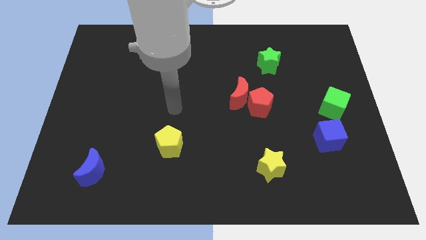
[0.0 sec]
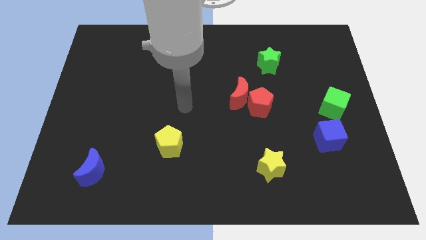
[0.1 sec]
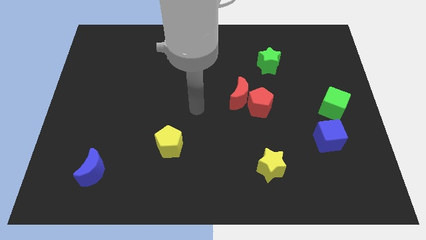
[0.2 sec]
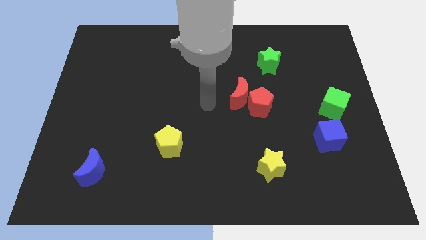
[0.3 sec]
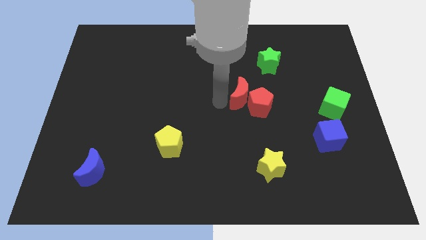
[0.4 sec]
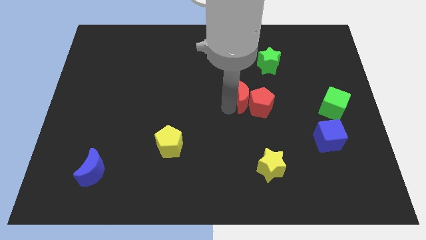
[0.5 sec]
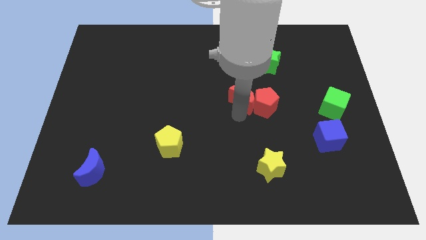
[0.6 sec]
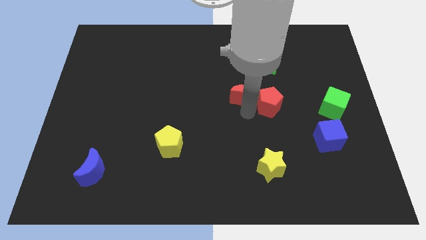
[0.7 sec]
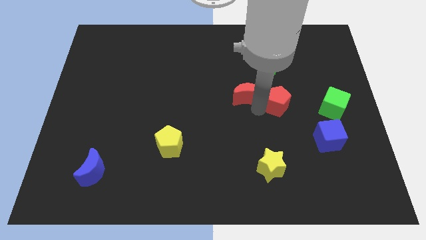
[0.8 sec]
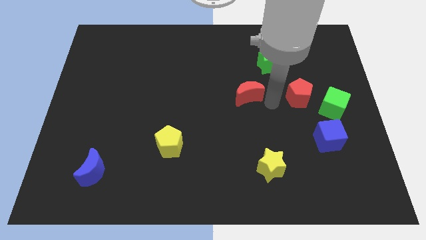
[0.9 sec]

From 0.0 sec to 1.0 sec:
move the red moon away from the red pentagon

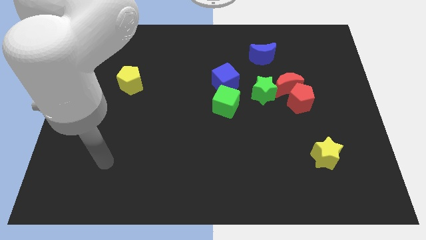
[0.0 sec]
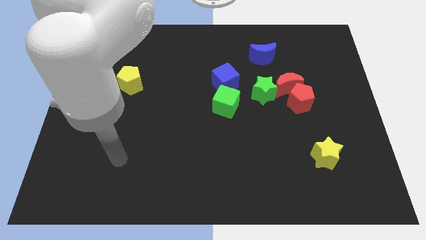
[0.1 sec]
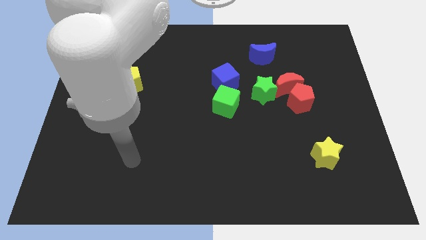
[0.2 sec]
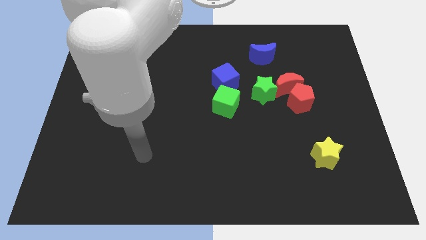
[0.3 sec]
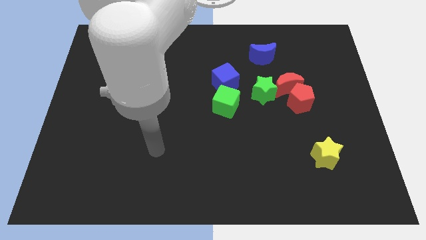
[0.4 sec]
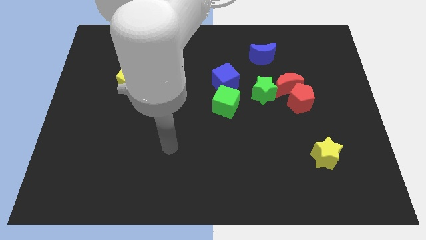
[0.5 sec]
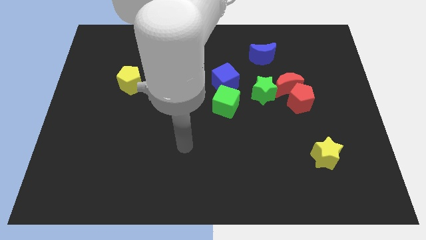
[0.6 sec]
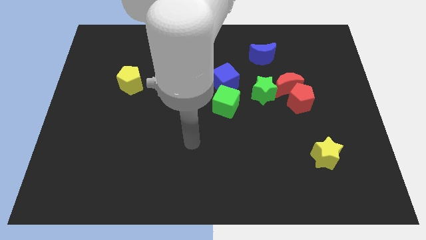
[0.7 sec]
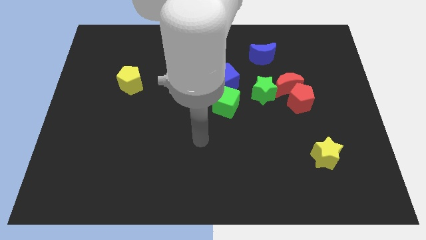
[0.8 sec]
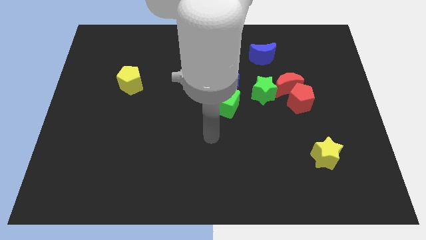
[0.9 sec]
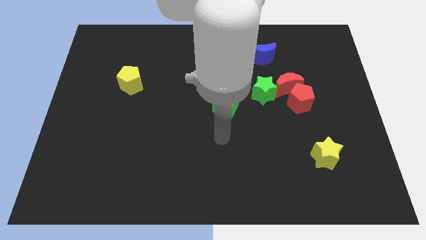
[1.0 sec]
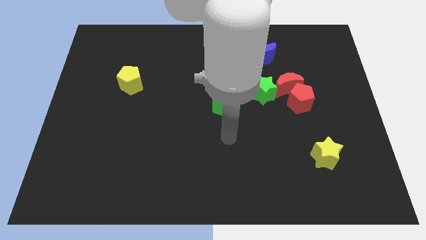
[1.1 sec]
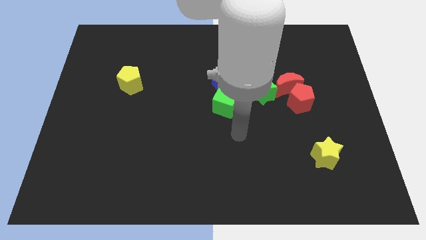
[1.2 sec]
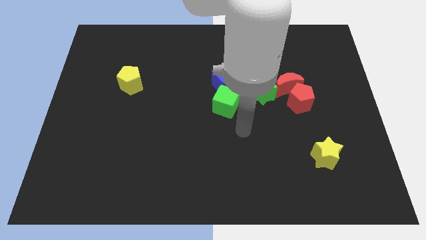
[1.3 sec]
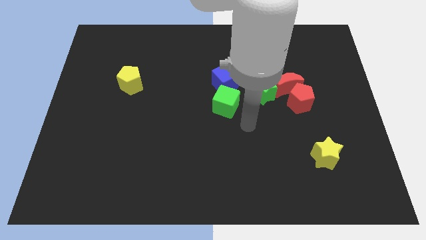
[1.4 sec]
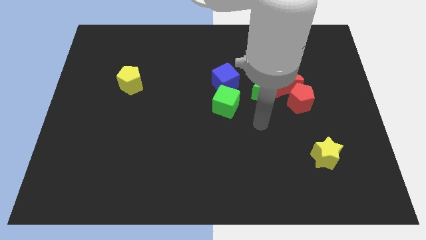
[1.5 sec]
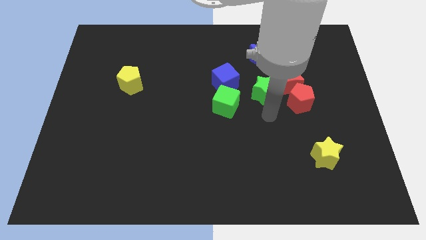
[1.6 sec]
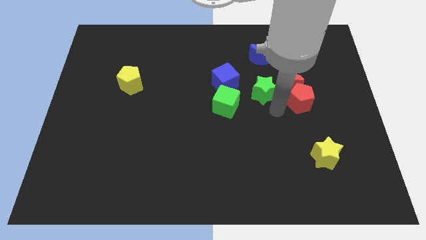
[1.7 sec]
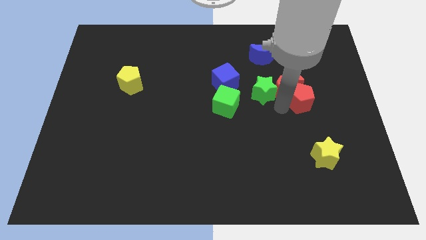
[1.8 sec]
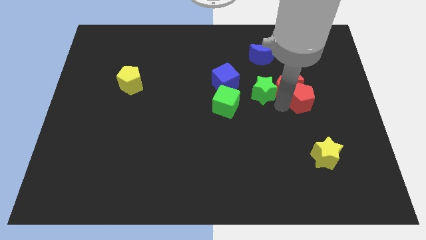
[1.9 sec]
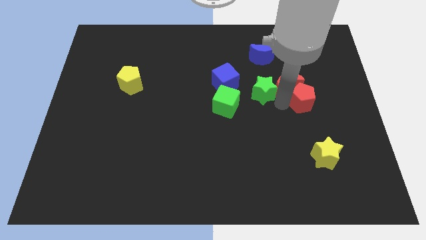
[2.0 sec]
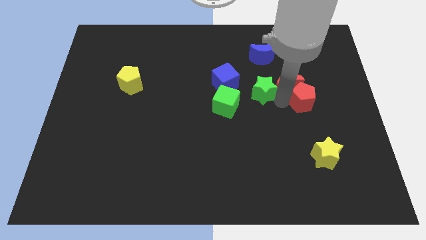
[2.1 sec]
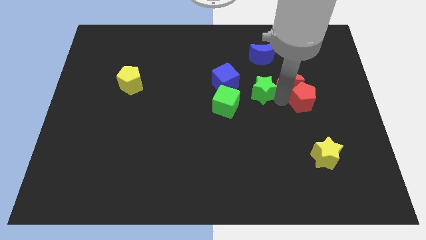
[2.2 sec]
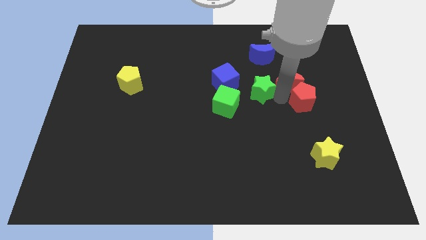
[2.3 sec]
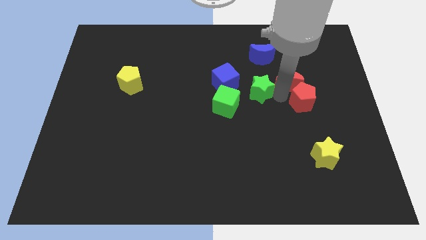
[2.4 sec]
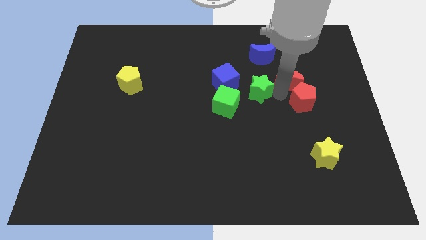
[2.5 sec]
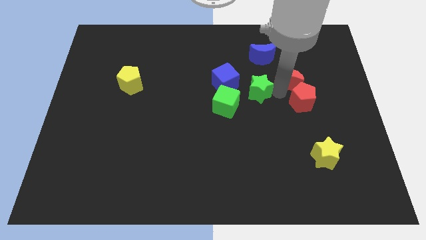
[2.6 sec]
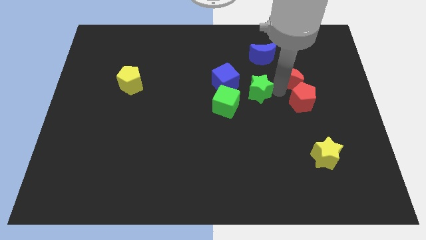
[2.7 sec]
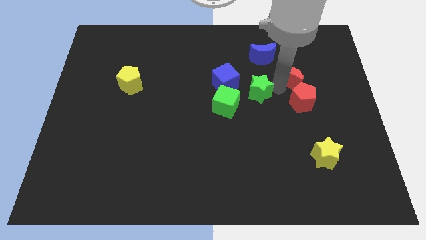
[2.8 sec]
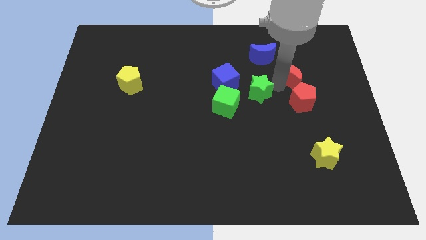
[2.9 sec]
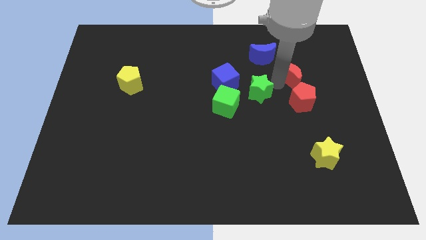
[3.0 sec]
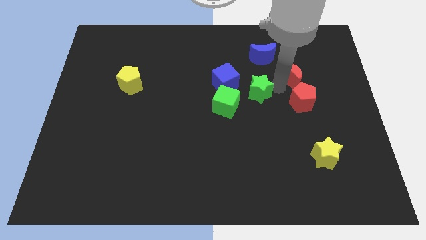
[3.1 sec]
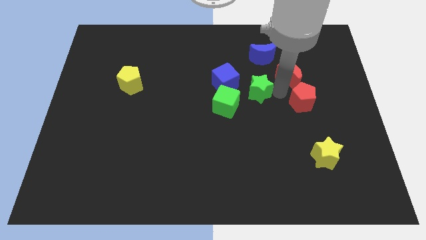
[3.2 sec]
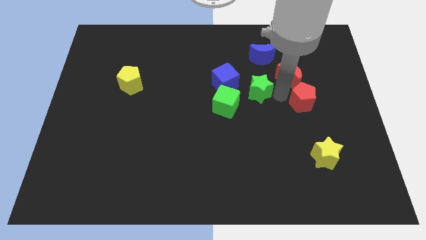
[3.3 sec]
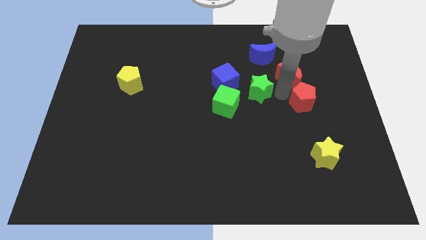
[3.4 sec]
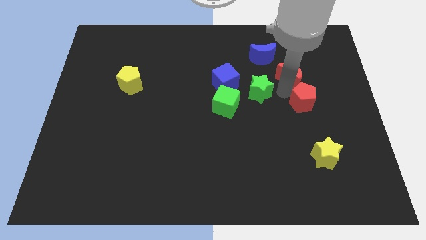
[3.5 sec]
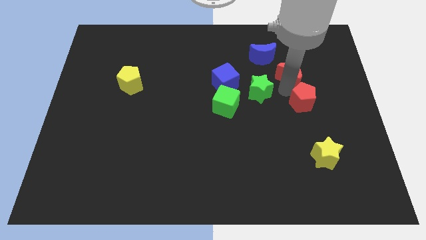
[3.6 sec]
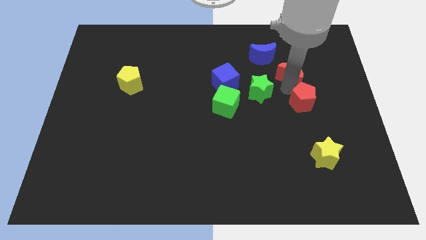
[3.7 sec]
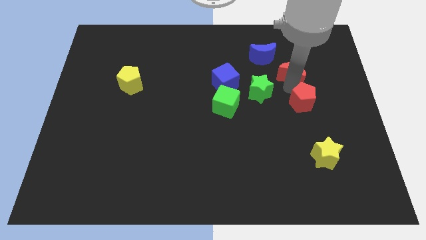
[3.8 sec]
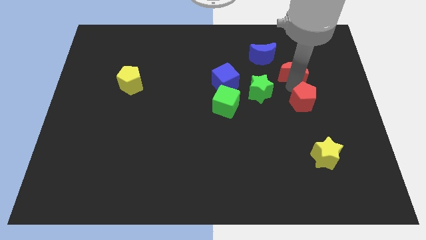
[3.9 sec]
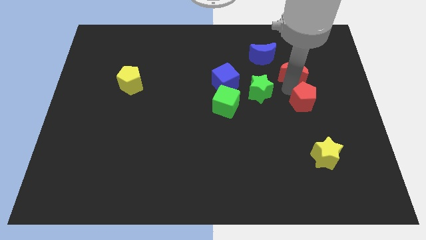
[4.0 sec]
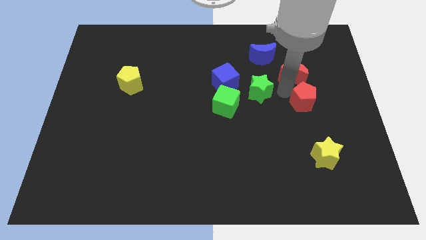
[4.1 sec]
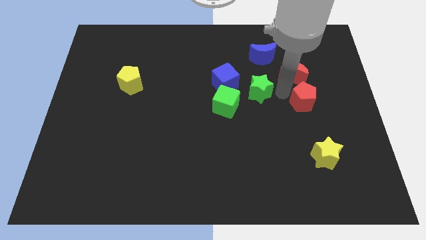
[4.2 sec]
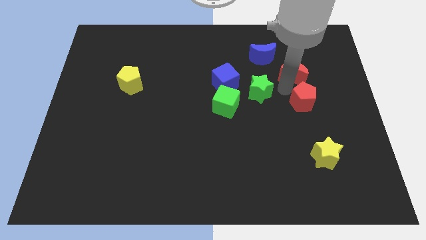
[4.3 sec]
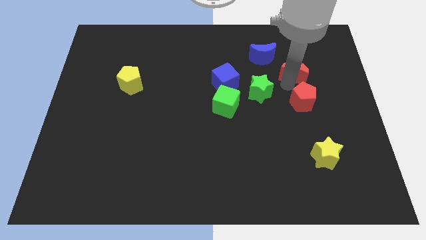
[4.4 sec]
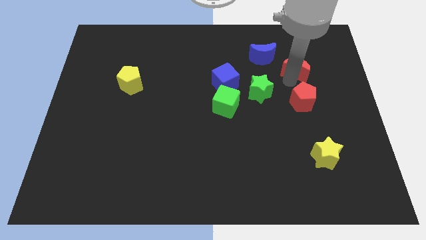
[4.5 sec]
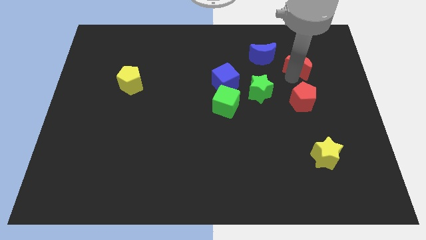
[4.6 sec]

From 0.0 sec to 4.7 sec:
separate the red moon from the red pentagon and green star

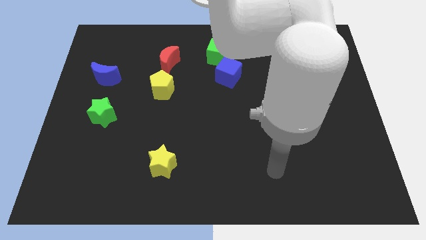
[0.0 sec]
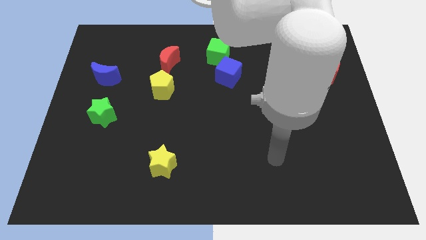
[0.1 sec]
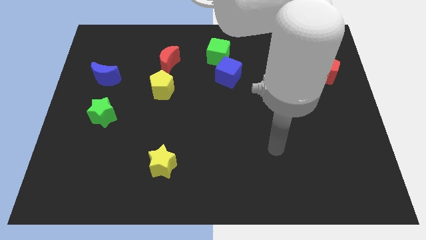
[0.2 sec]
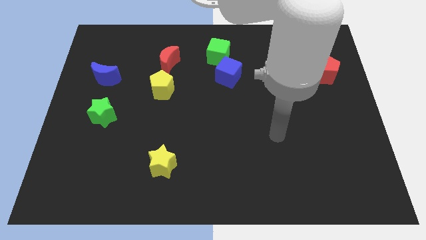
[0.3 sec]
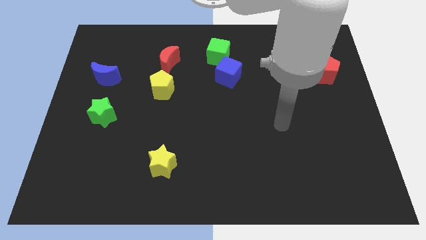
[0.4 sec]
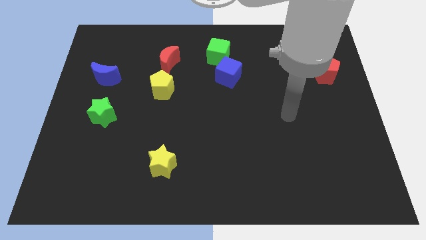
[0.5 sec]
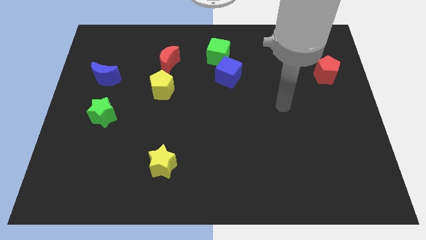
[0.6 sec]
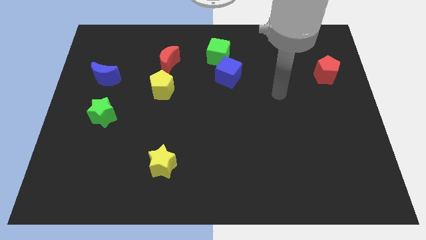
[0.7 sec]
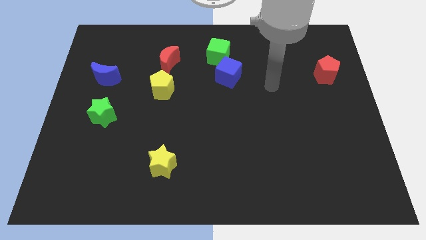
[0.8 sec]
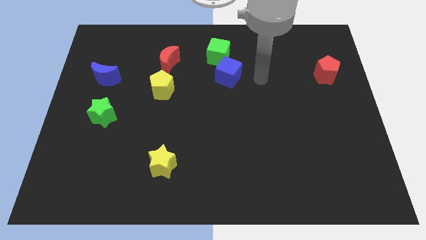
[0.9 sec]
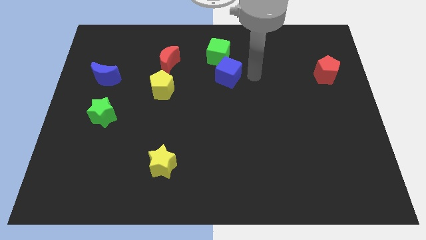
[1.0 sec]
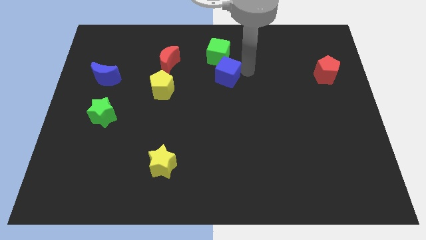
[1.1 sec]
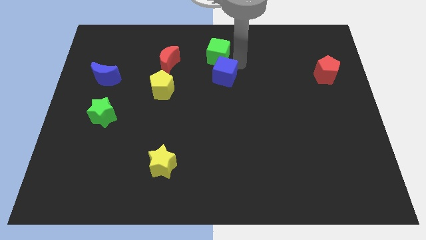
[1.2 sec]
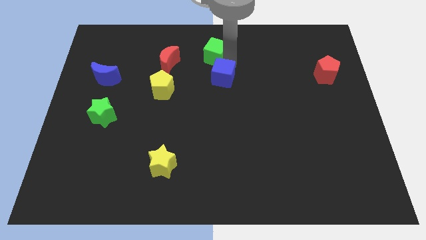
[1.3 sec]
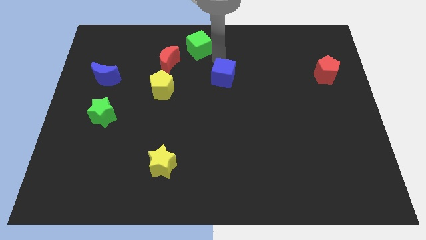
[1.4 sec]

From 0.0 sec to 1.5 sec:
separate the blue cube from the green cube

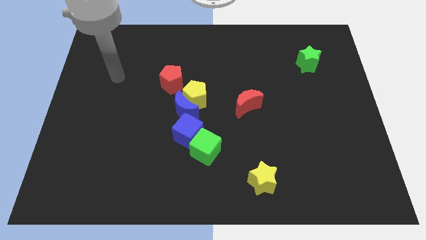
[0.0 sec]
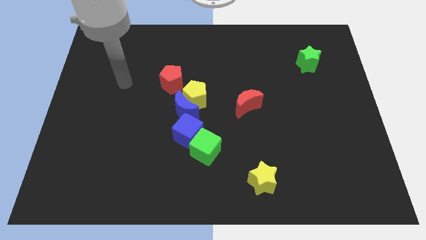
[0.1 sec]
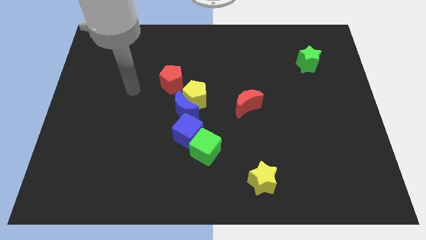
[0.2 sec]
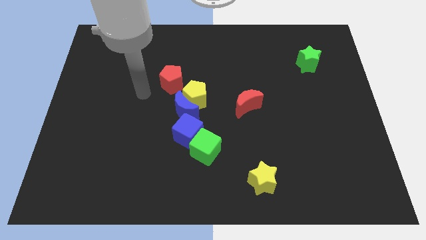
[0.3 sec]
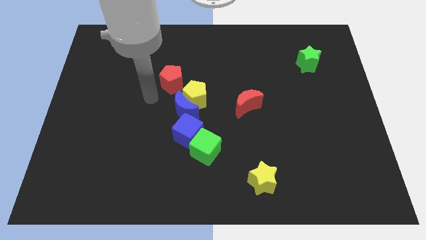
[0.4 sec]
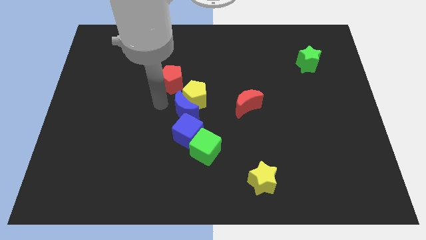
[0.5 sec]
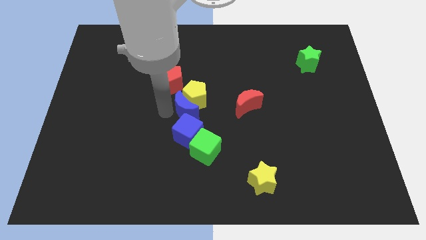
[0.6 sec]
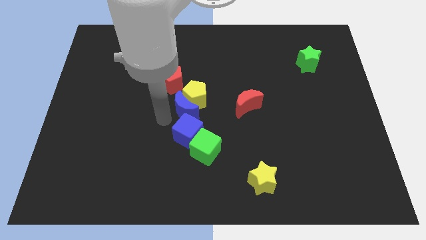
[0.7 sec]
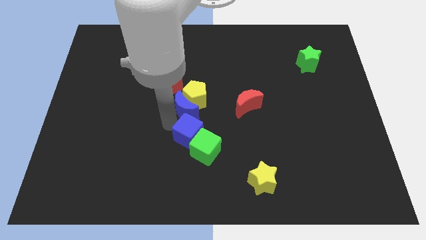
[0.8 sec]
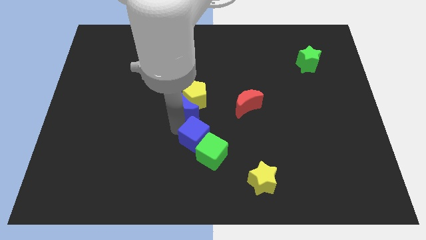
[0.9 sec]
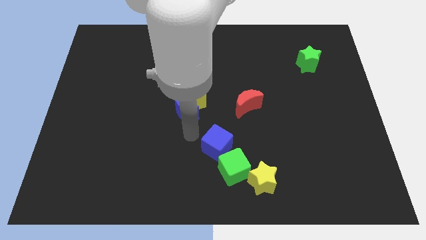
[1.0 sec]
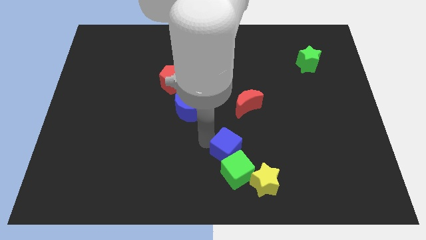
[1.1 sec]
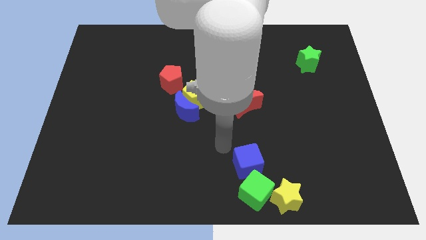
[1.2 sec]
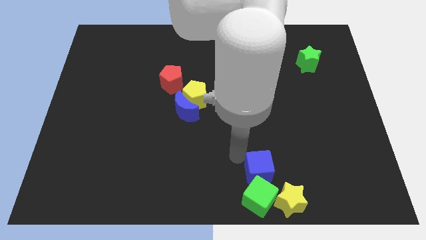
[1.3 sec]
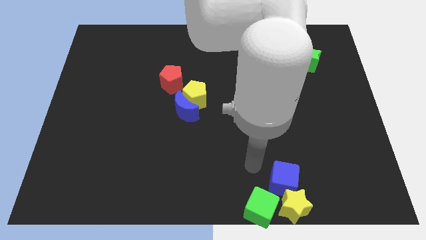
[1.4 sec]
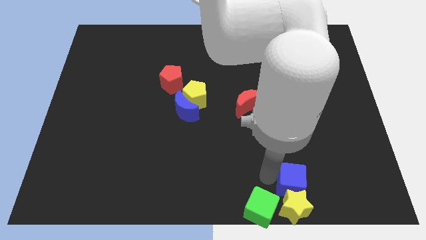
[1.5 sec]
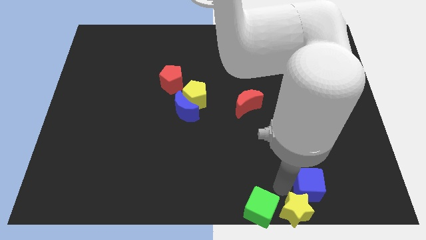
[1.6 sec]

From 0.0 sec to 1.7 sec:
pull the green cube apart from the blue cube

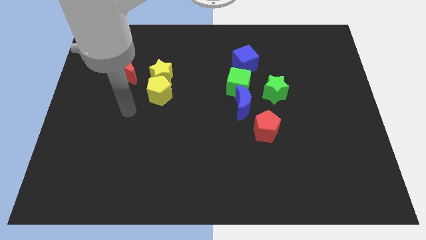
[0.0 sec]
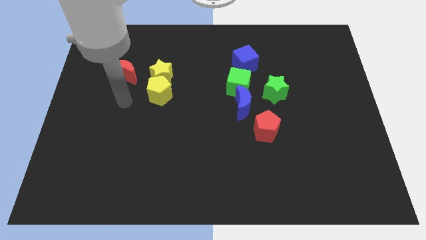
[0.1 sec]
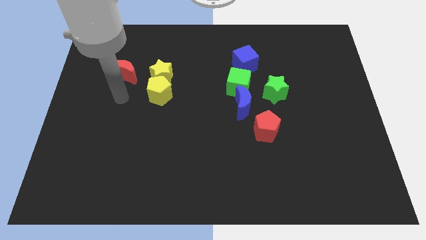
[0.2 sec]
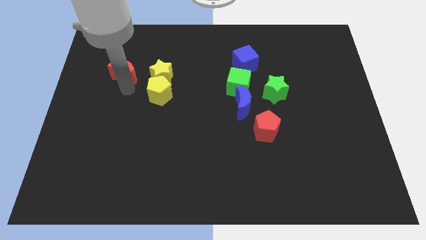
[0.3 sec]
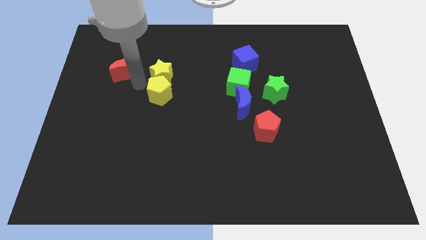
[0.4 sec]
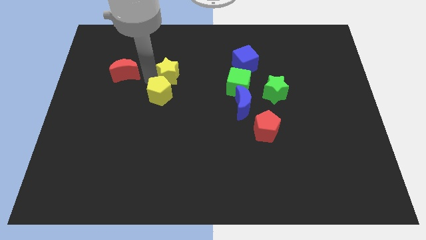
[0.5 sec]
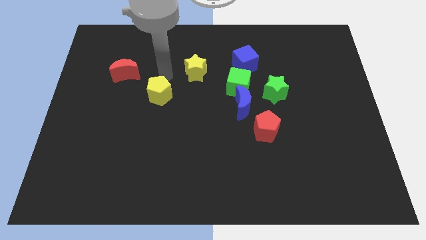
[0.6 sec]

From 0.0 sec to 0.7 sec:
pull the yellow pentagon apart from the yellow star
